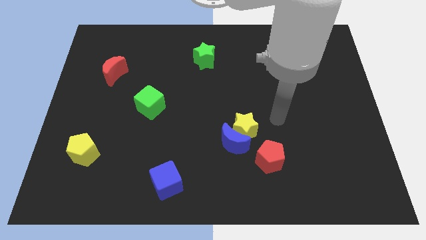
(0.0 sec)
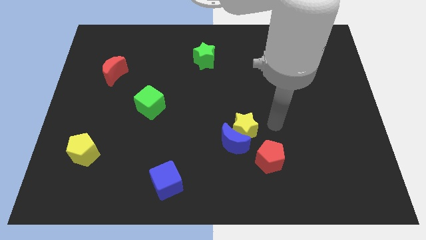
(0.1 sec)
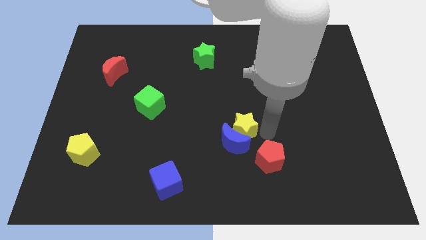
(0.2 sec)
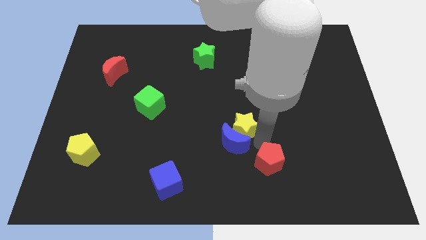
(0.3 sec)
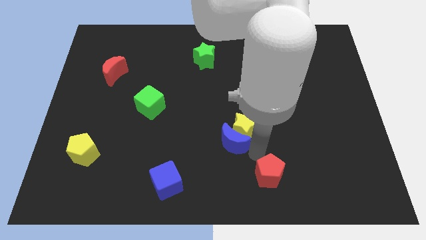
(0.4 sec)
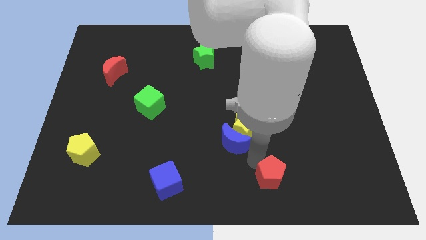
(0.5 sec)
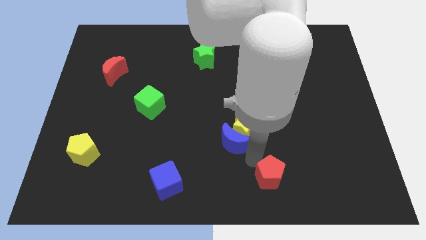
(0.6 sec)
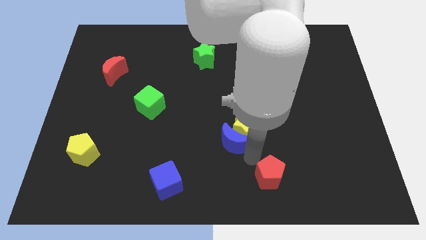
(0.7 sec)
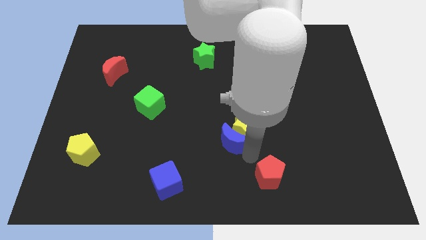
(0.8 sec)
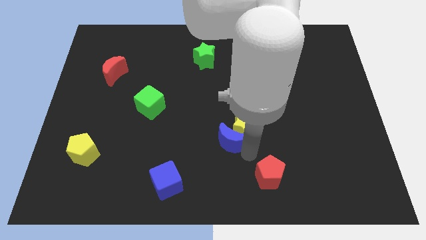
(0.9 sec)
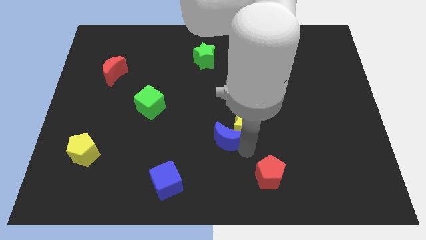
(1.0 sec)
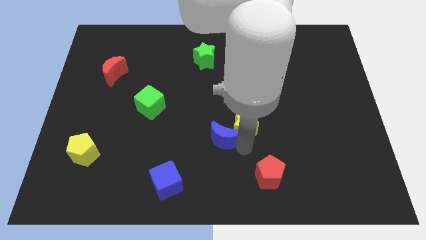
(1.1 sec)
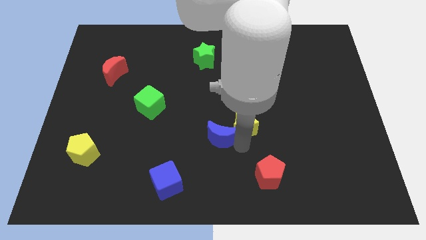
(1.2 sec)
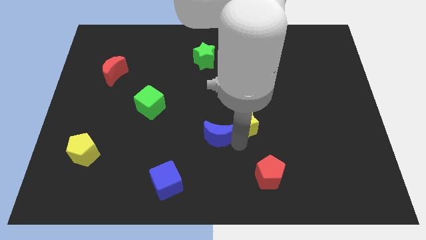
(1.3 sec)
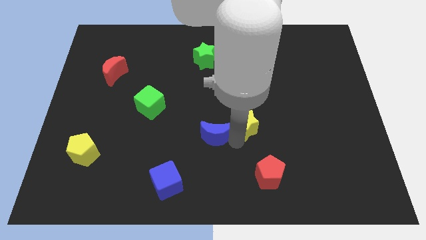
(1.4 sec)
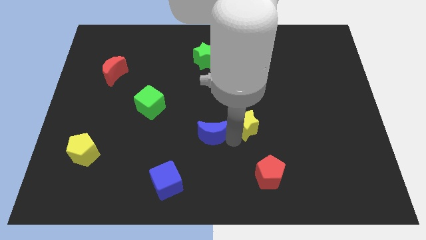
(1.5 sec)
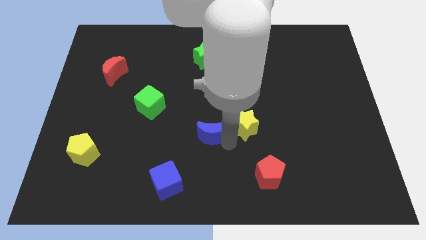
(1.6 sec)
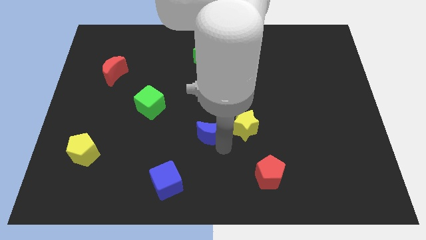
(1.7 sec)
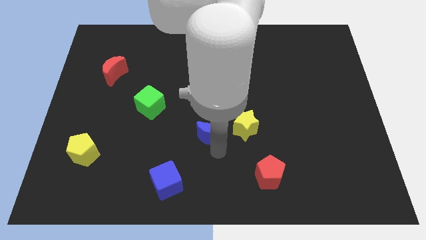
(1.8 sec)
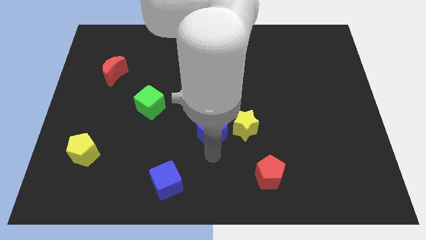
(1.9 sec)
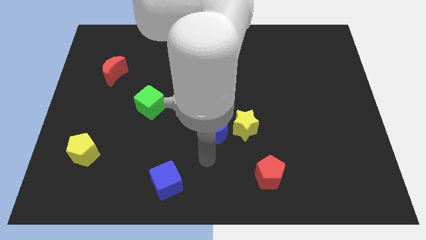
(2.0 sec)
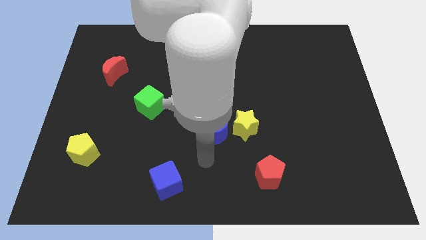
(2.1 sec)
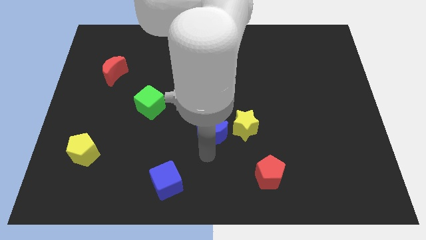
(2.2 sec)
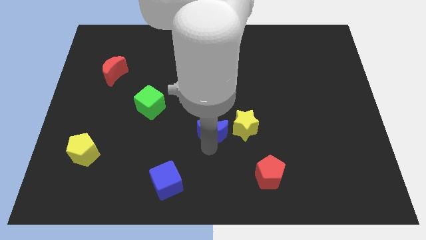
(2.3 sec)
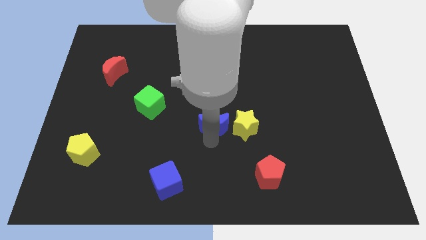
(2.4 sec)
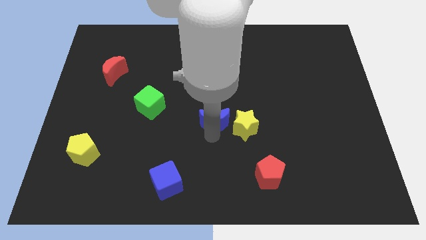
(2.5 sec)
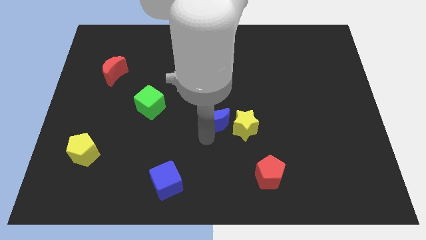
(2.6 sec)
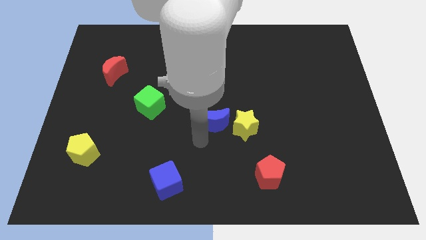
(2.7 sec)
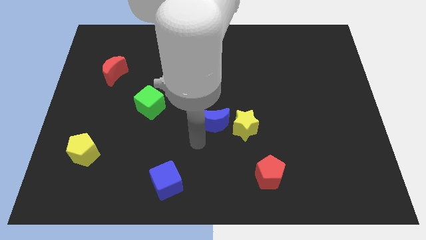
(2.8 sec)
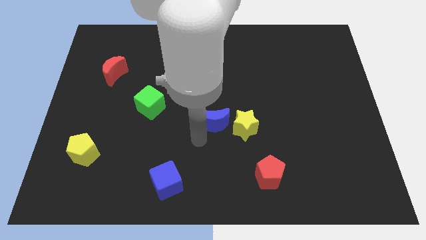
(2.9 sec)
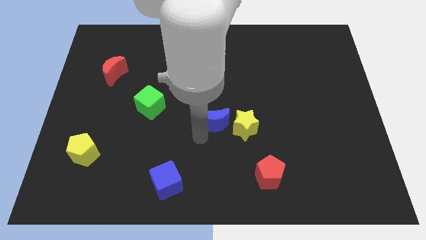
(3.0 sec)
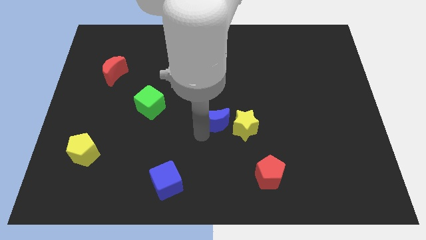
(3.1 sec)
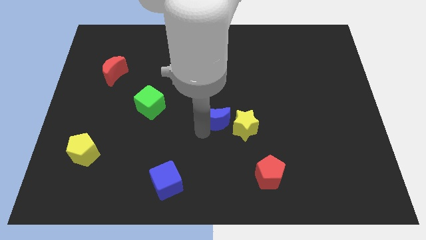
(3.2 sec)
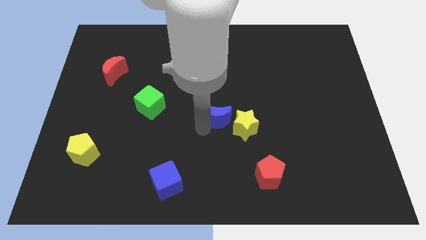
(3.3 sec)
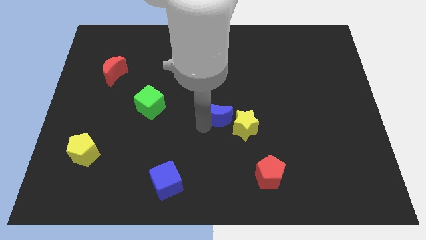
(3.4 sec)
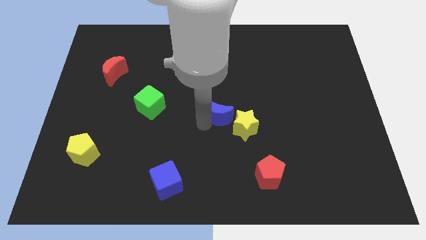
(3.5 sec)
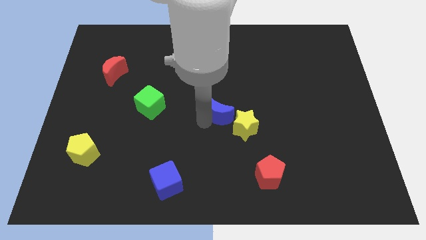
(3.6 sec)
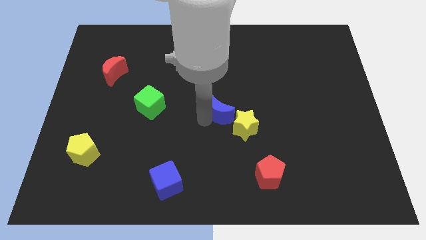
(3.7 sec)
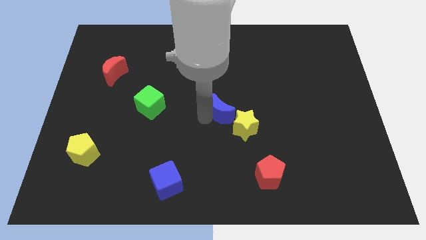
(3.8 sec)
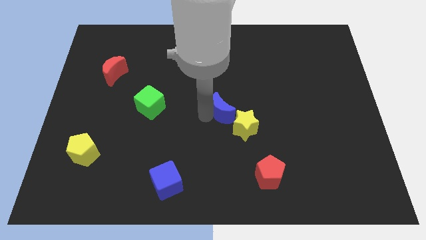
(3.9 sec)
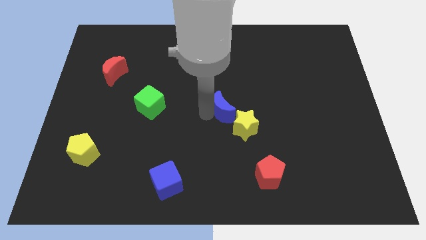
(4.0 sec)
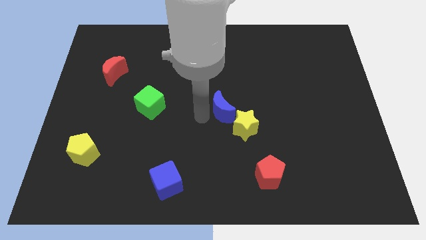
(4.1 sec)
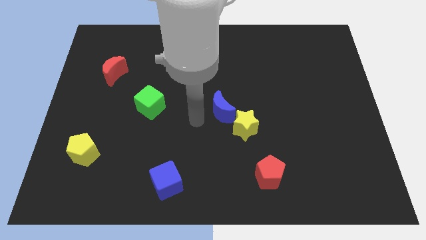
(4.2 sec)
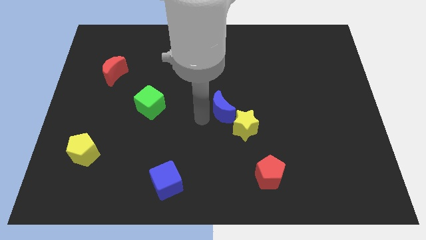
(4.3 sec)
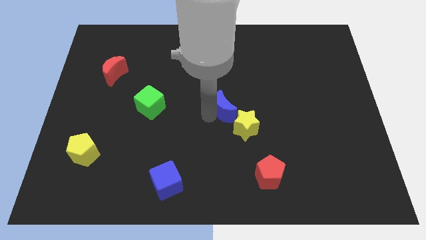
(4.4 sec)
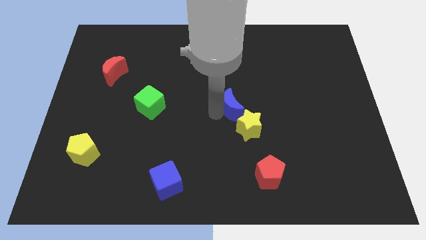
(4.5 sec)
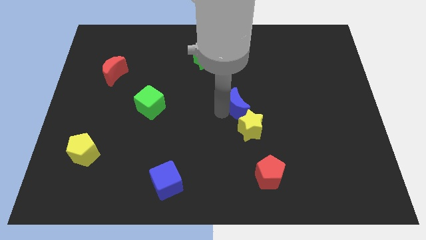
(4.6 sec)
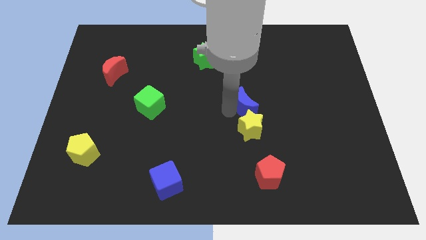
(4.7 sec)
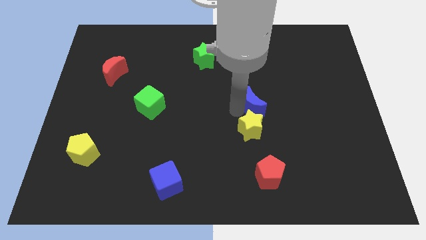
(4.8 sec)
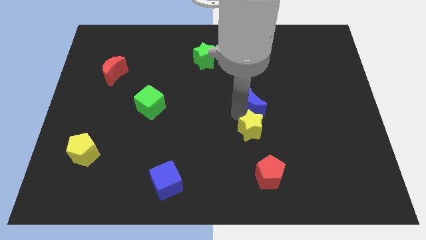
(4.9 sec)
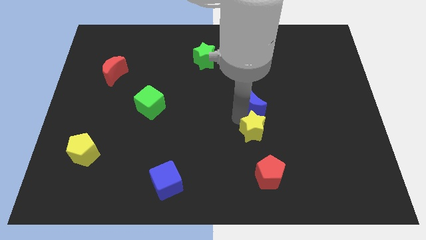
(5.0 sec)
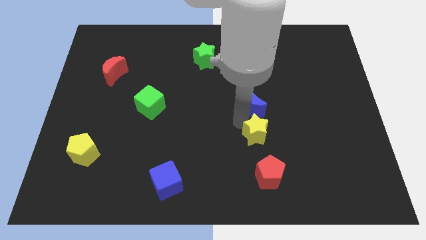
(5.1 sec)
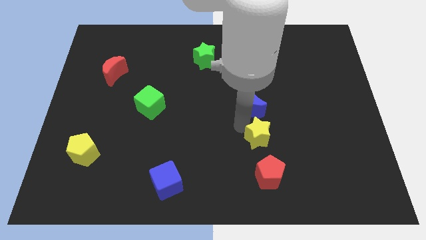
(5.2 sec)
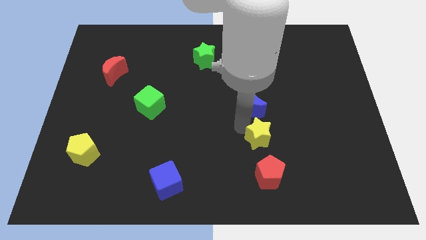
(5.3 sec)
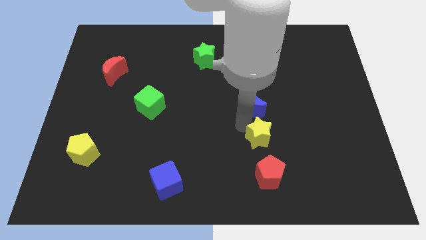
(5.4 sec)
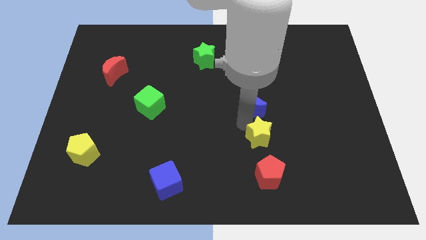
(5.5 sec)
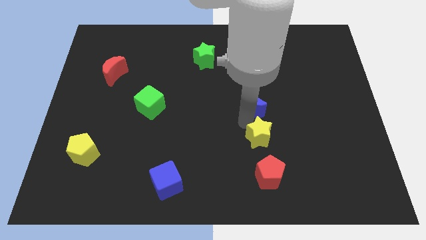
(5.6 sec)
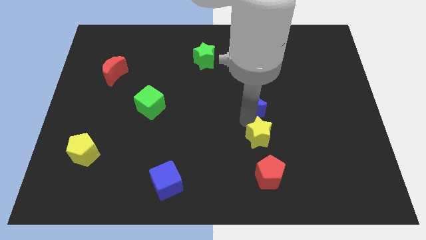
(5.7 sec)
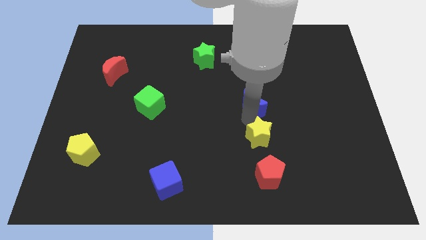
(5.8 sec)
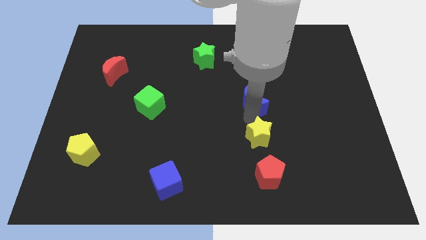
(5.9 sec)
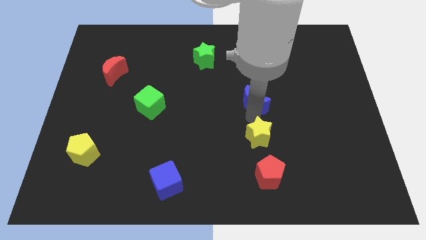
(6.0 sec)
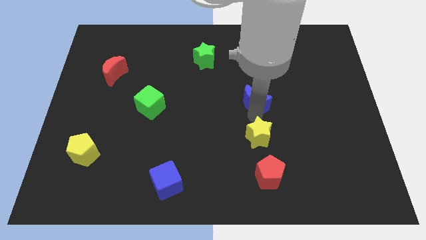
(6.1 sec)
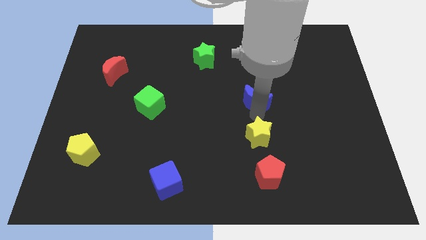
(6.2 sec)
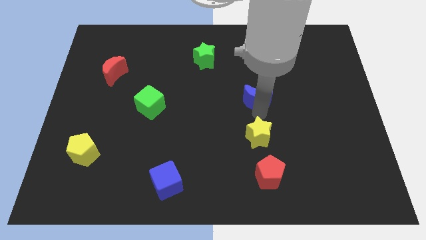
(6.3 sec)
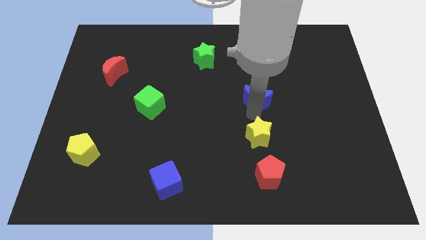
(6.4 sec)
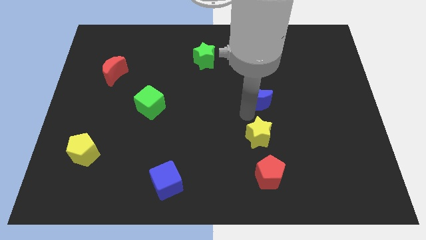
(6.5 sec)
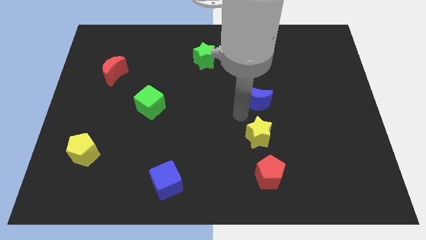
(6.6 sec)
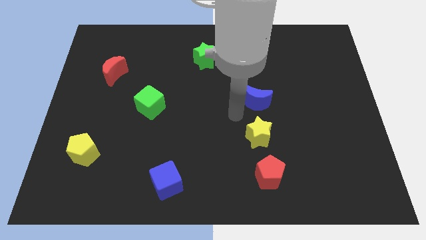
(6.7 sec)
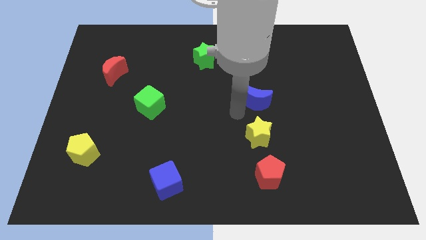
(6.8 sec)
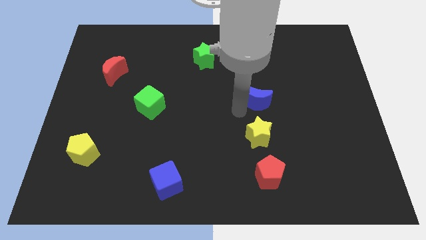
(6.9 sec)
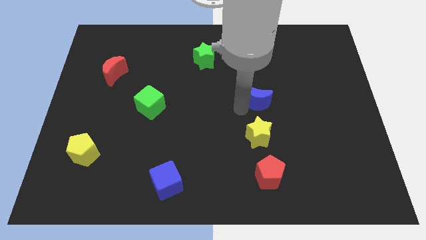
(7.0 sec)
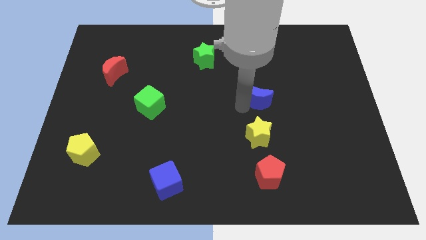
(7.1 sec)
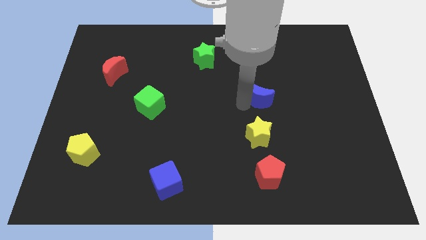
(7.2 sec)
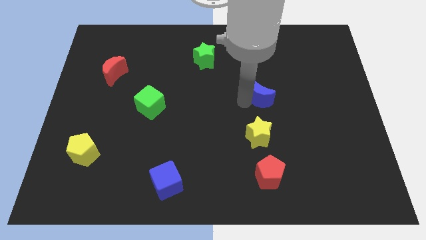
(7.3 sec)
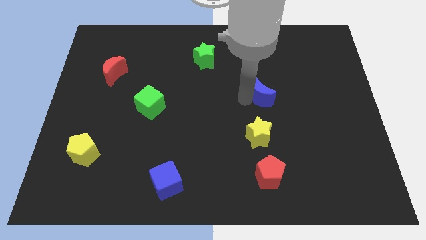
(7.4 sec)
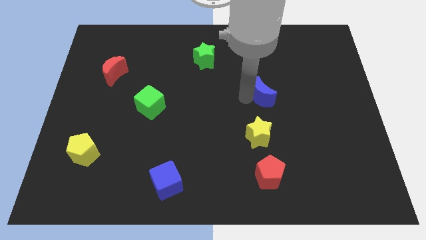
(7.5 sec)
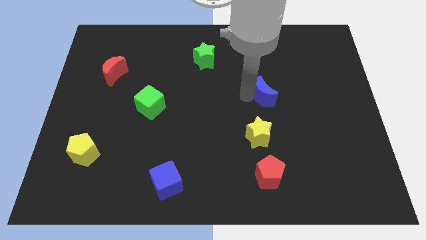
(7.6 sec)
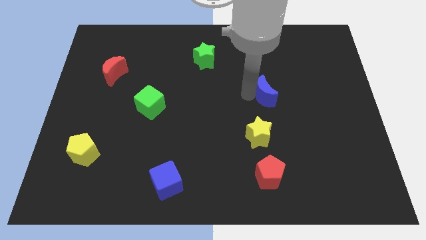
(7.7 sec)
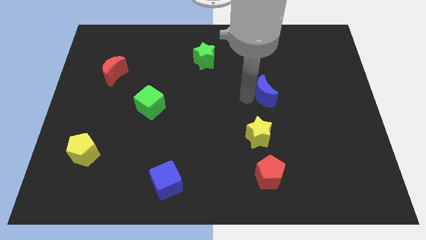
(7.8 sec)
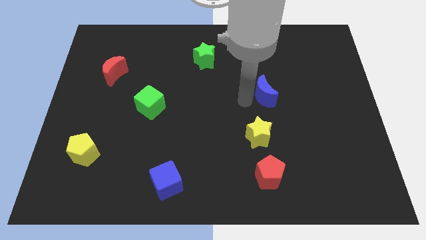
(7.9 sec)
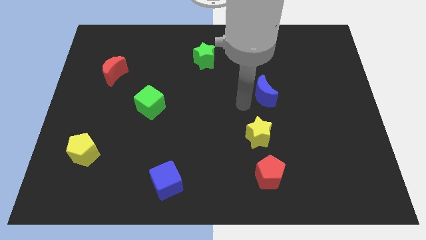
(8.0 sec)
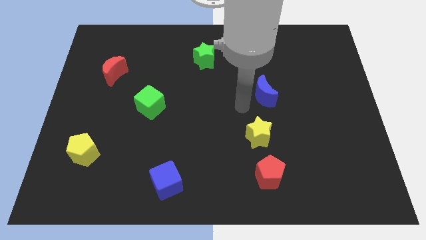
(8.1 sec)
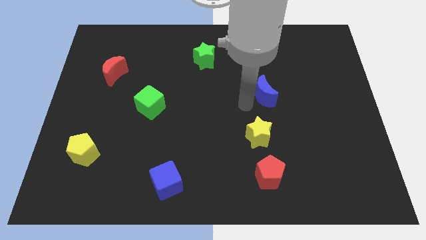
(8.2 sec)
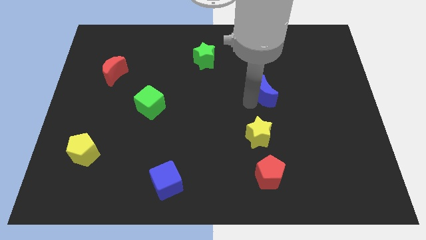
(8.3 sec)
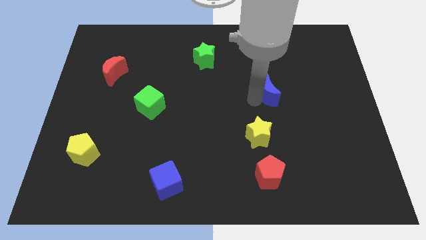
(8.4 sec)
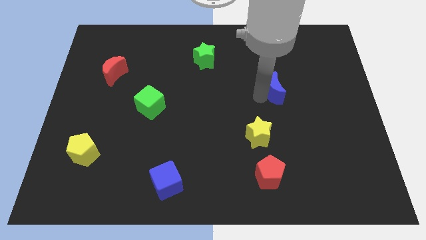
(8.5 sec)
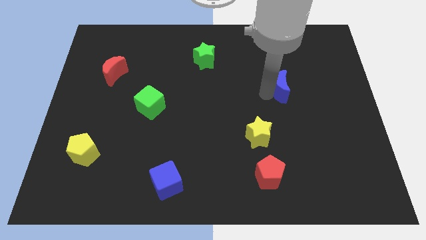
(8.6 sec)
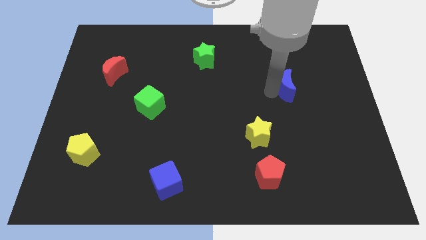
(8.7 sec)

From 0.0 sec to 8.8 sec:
move the blue moon upwards and to the right diagonally
